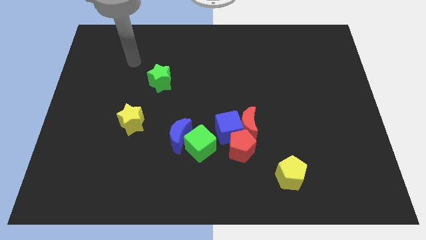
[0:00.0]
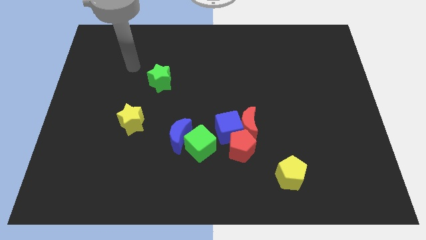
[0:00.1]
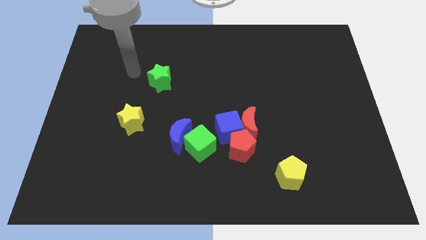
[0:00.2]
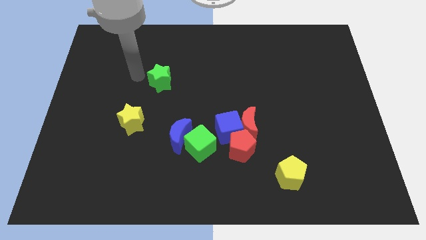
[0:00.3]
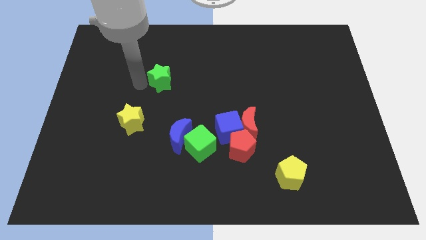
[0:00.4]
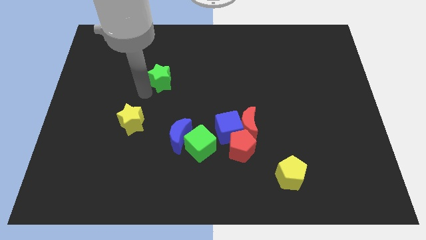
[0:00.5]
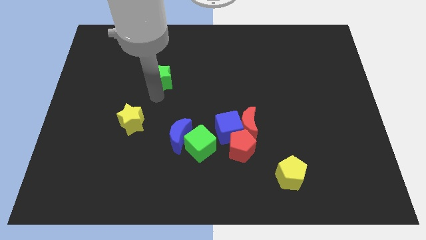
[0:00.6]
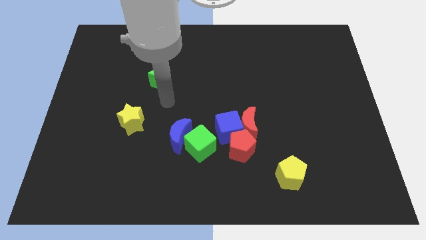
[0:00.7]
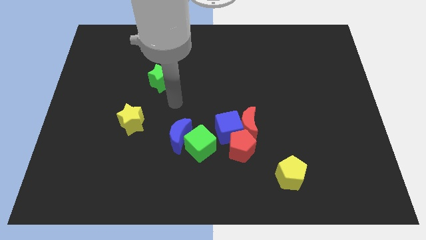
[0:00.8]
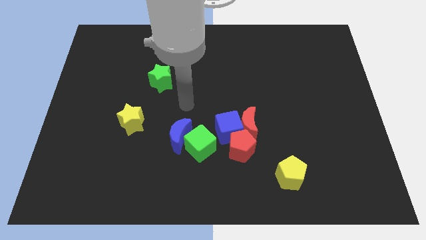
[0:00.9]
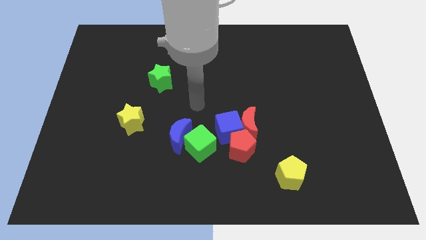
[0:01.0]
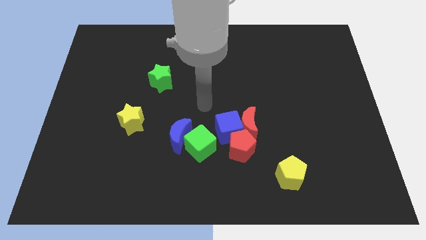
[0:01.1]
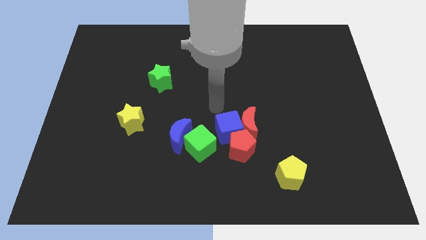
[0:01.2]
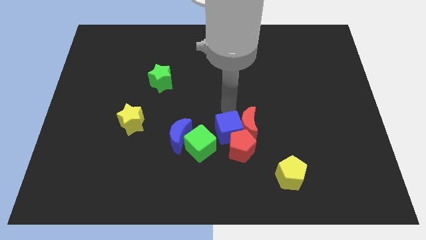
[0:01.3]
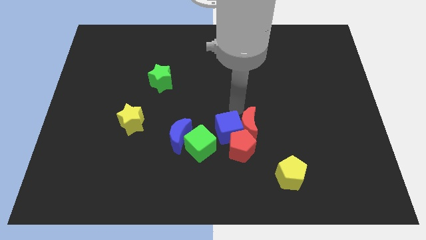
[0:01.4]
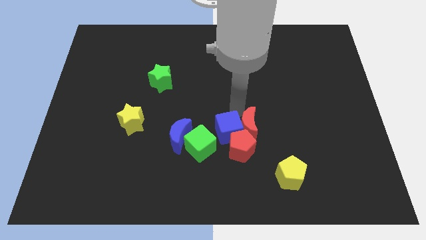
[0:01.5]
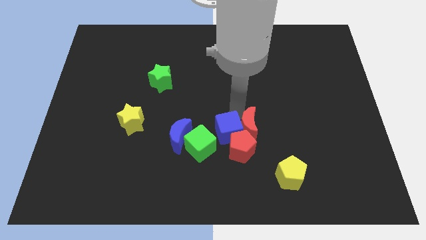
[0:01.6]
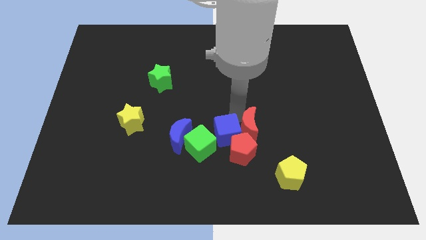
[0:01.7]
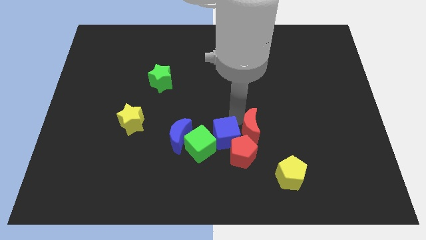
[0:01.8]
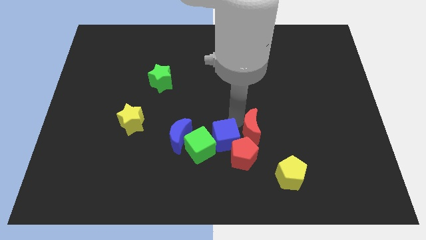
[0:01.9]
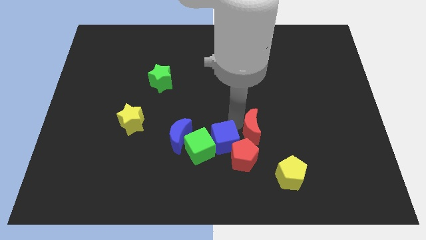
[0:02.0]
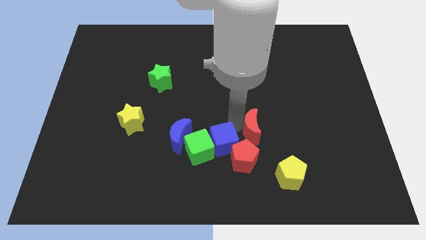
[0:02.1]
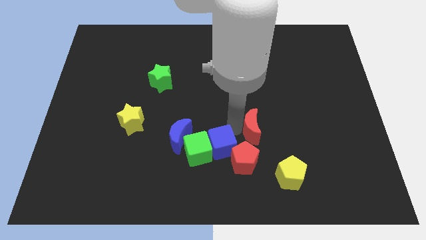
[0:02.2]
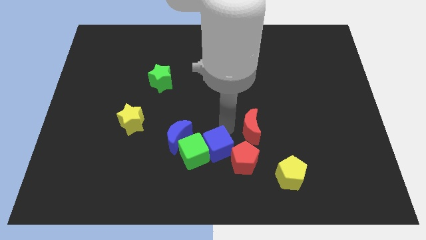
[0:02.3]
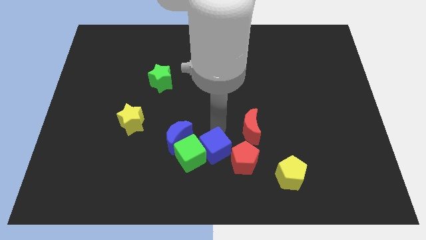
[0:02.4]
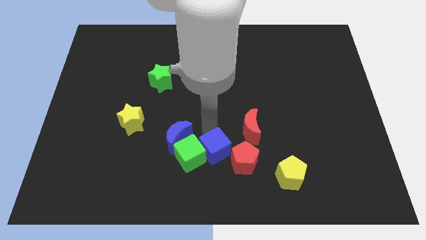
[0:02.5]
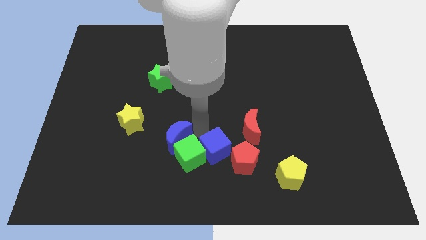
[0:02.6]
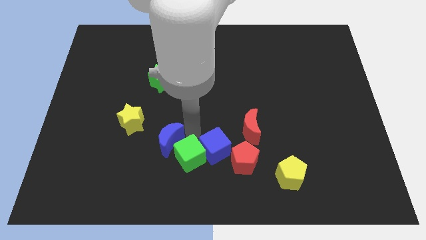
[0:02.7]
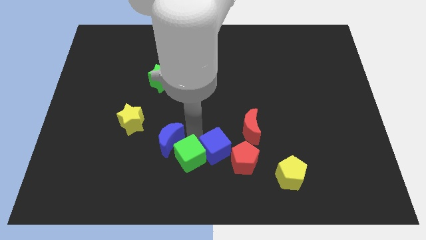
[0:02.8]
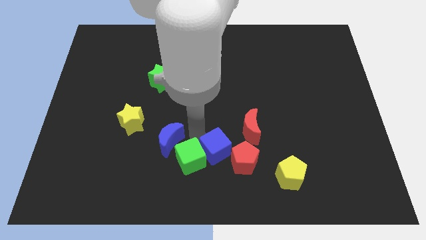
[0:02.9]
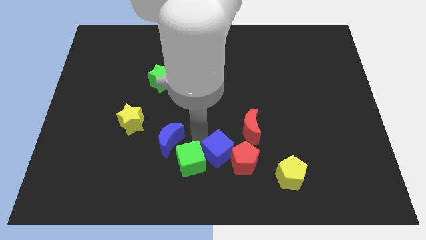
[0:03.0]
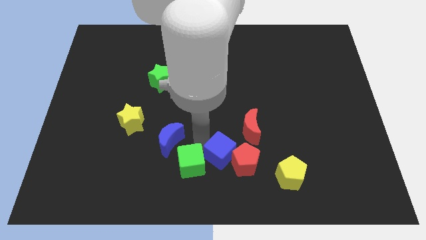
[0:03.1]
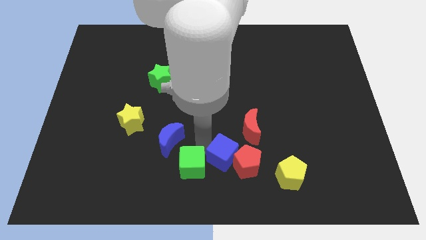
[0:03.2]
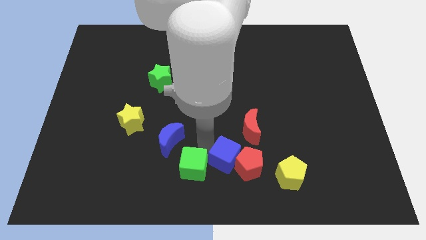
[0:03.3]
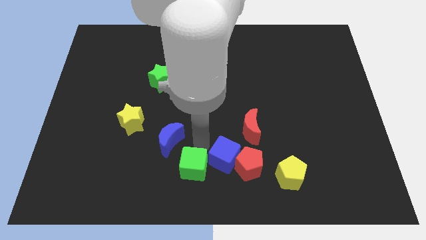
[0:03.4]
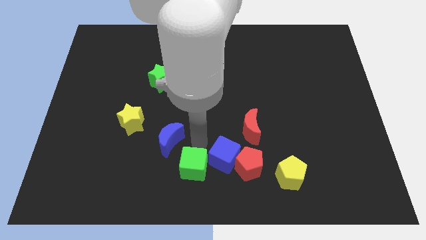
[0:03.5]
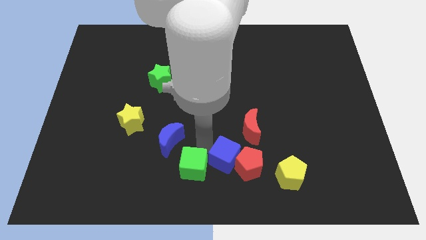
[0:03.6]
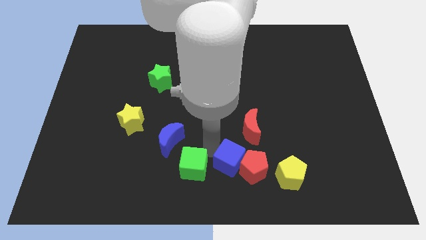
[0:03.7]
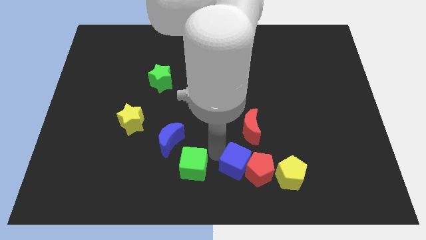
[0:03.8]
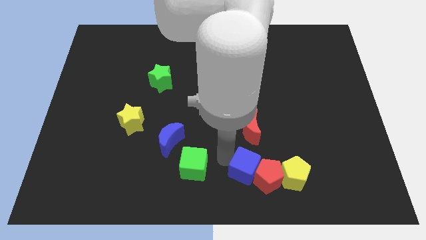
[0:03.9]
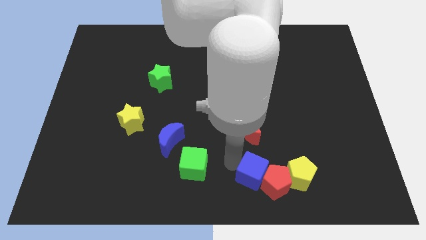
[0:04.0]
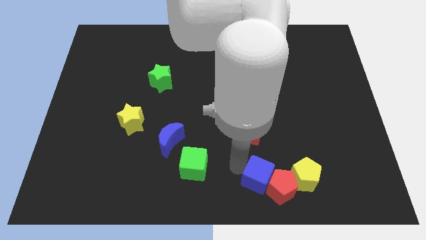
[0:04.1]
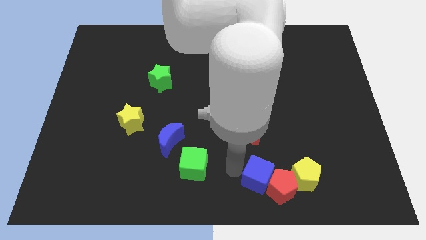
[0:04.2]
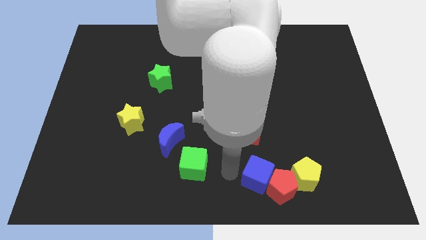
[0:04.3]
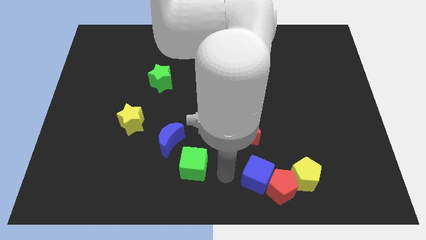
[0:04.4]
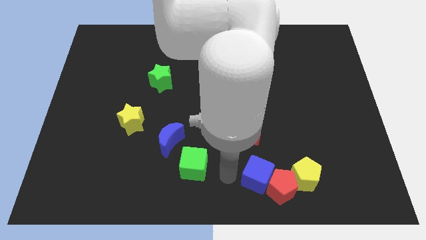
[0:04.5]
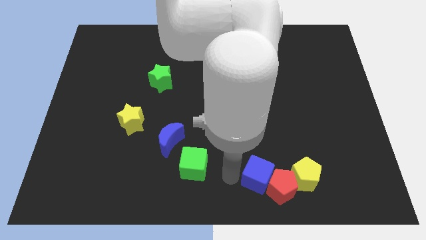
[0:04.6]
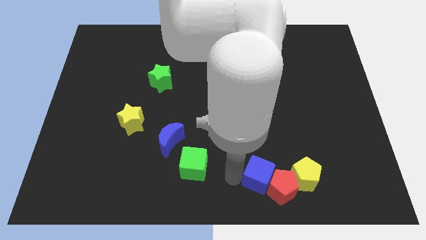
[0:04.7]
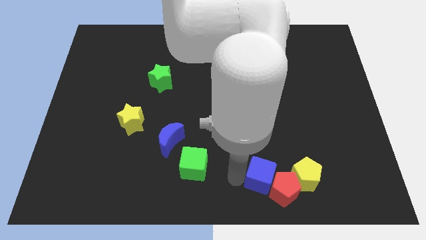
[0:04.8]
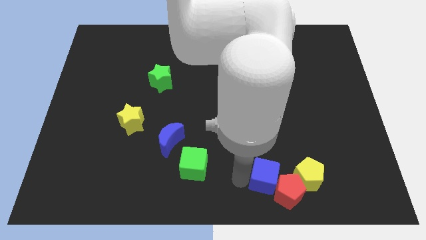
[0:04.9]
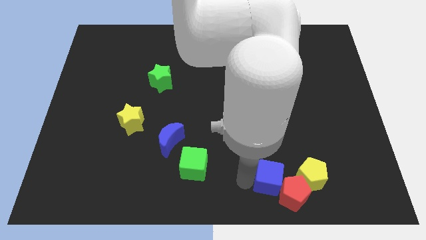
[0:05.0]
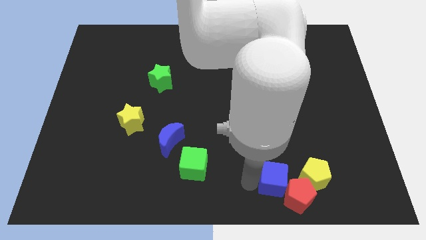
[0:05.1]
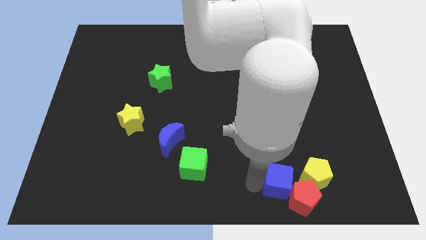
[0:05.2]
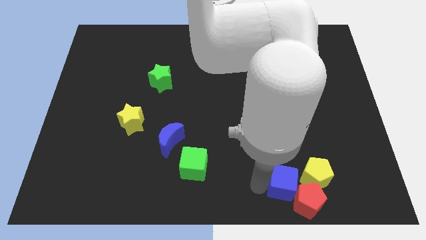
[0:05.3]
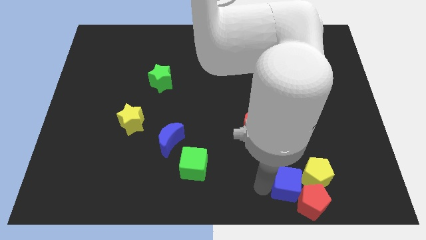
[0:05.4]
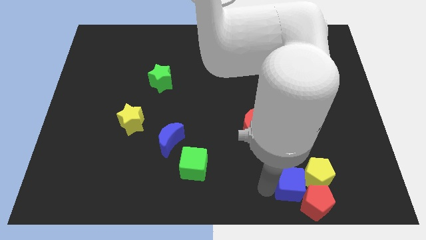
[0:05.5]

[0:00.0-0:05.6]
push the blue cube towards the yellow pentagon

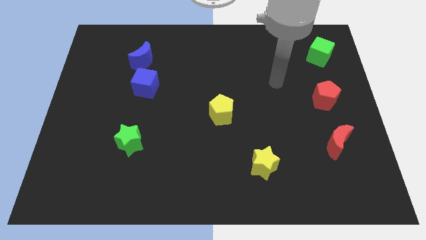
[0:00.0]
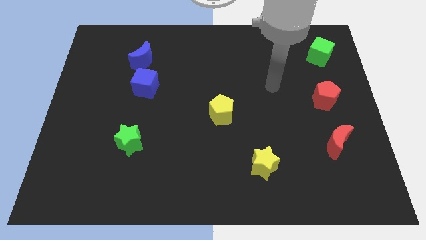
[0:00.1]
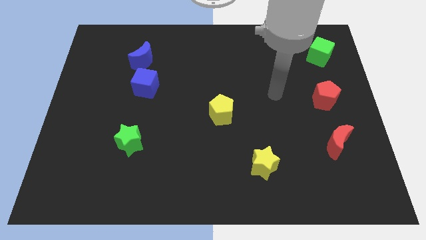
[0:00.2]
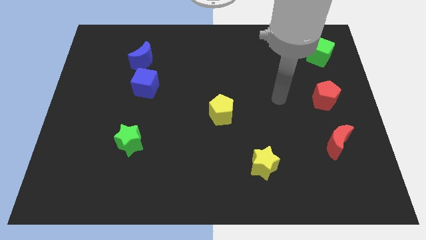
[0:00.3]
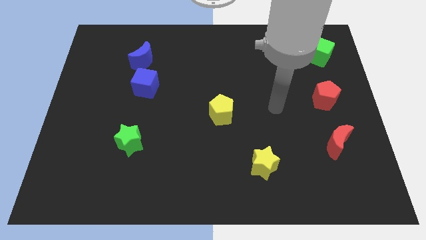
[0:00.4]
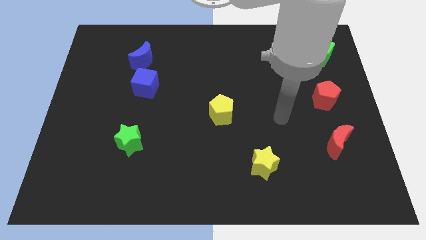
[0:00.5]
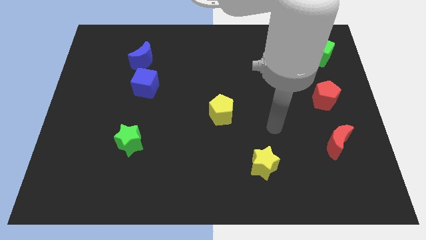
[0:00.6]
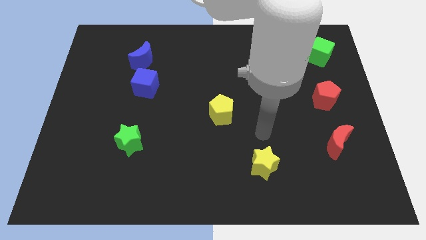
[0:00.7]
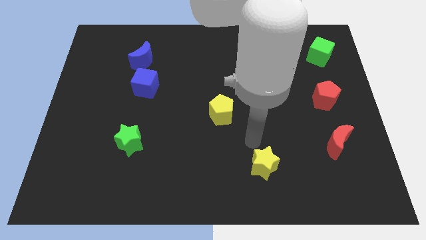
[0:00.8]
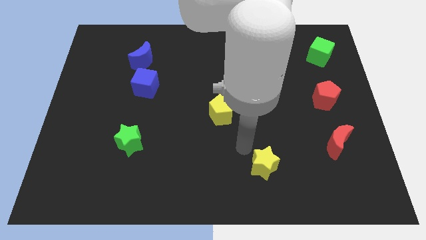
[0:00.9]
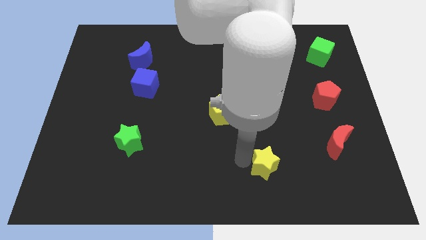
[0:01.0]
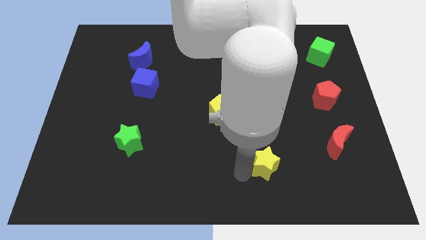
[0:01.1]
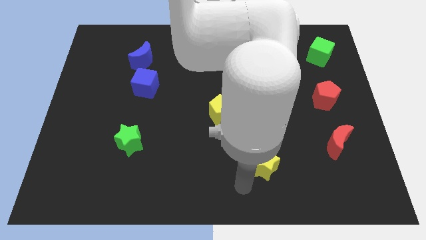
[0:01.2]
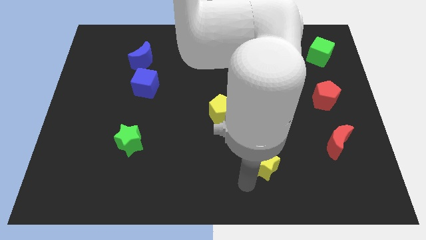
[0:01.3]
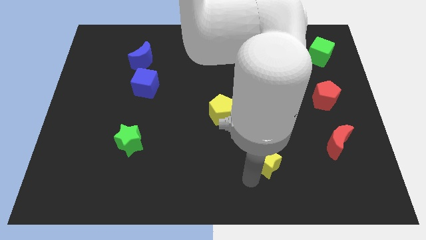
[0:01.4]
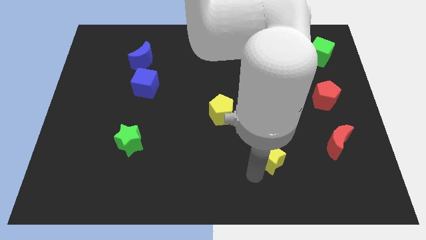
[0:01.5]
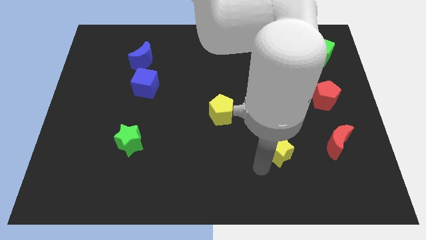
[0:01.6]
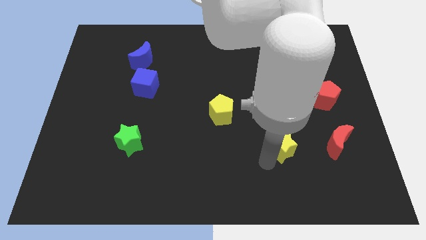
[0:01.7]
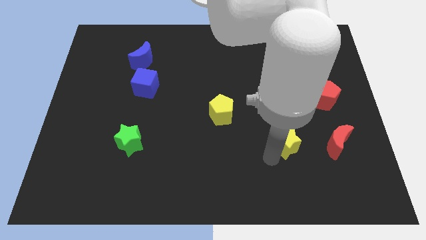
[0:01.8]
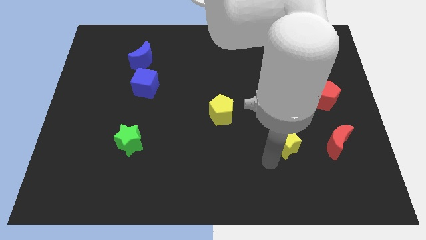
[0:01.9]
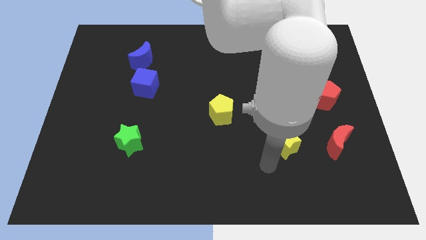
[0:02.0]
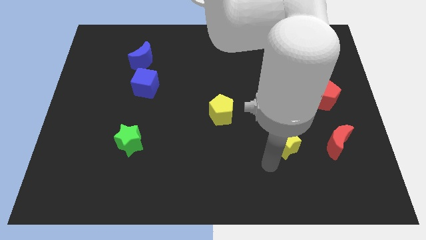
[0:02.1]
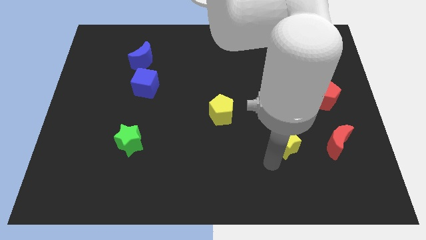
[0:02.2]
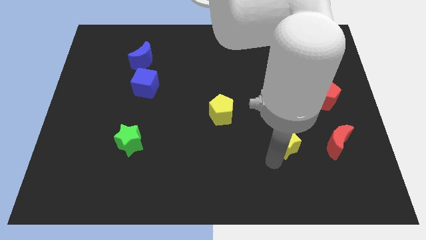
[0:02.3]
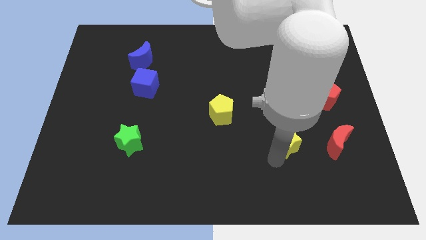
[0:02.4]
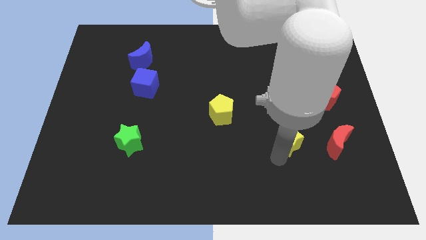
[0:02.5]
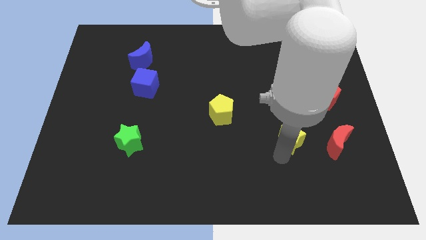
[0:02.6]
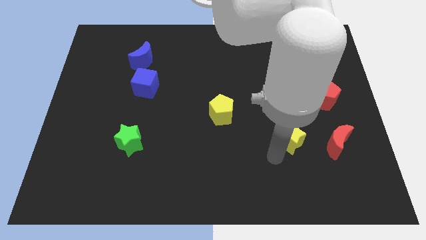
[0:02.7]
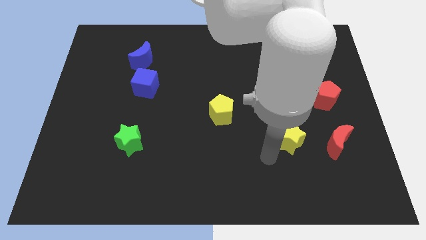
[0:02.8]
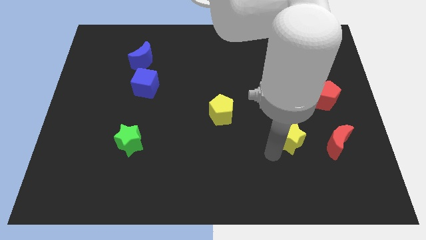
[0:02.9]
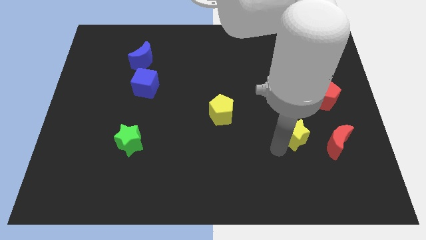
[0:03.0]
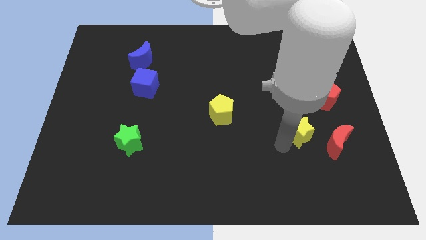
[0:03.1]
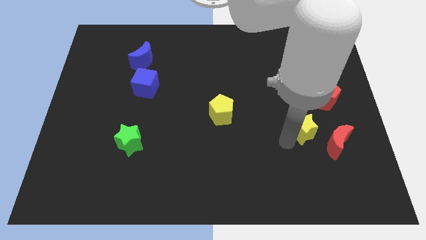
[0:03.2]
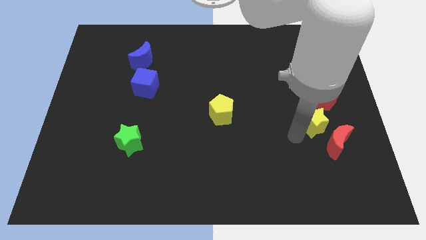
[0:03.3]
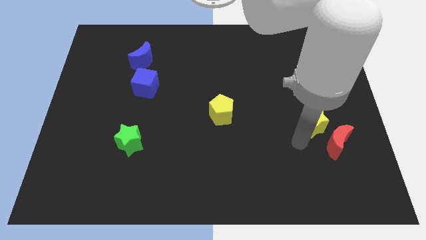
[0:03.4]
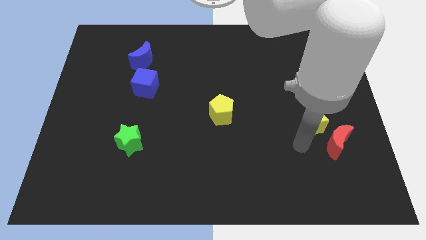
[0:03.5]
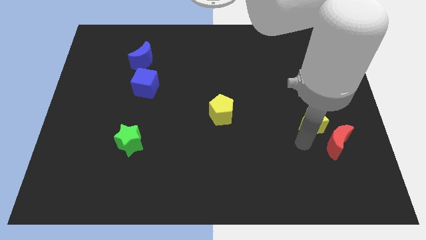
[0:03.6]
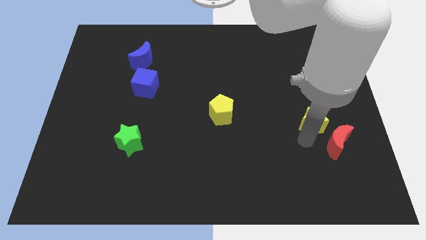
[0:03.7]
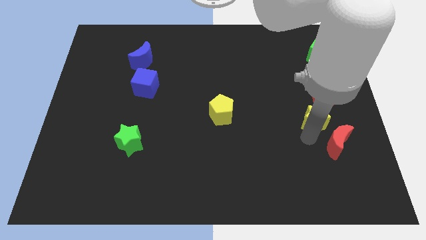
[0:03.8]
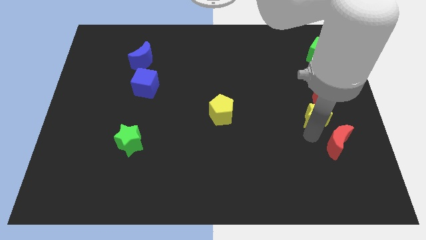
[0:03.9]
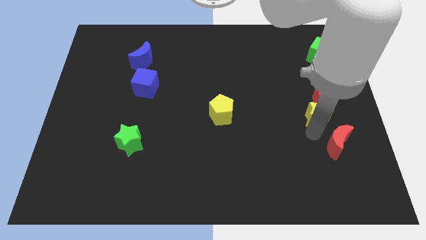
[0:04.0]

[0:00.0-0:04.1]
push the yellow star next to the red pentagon
